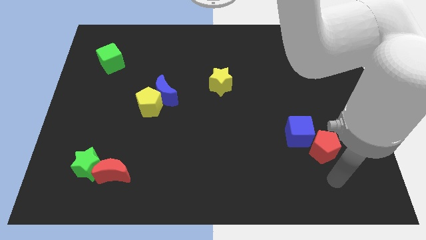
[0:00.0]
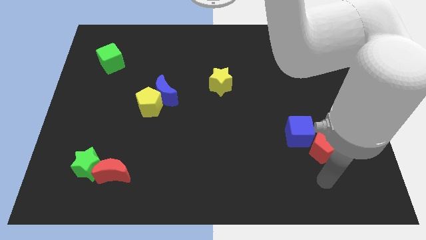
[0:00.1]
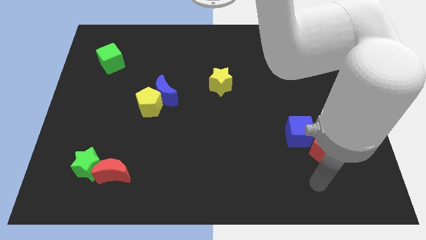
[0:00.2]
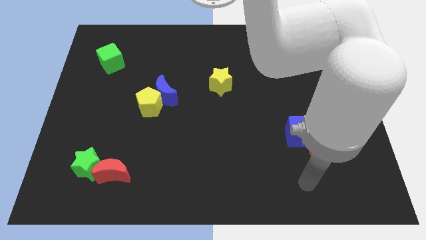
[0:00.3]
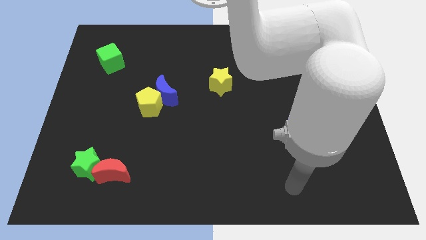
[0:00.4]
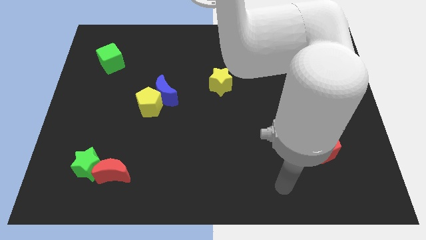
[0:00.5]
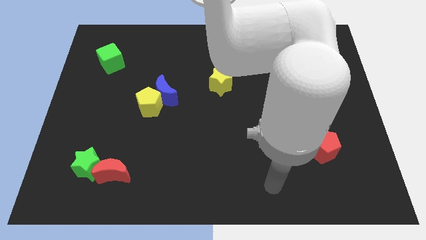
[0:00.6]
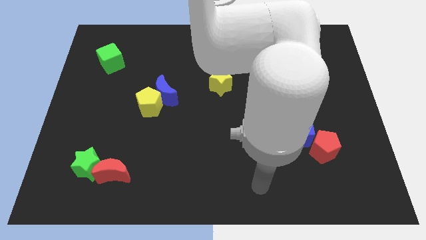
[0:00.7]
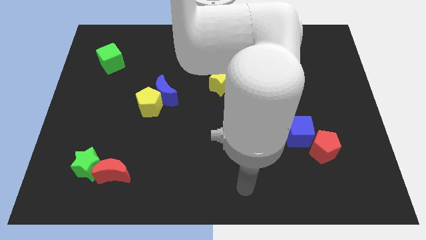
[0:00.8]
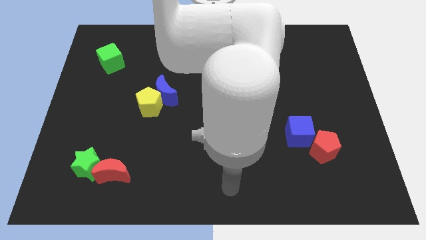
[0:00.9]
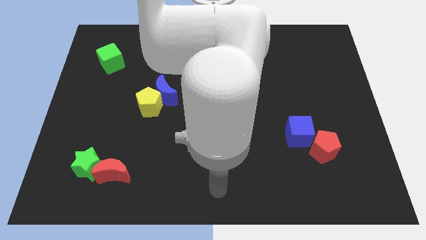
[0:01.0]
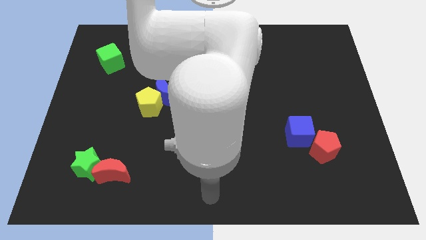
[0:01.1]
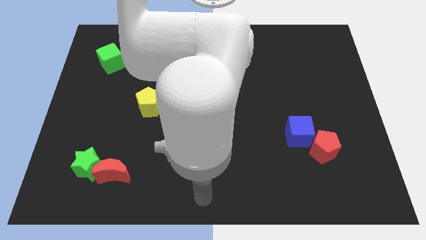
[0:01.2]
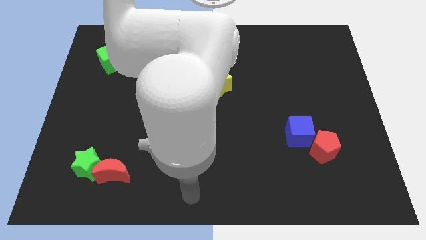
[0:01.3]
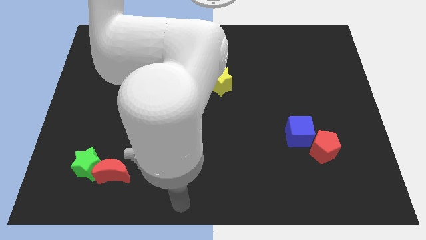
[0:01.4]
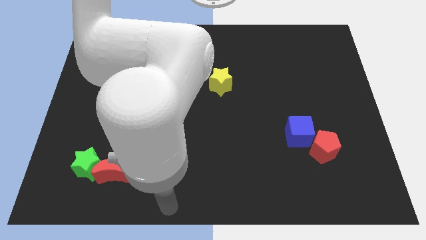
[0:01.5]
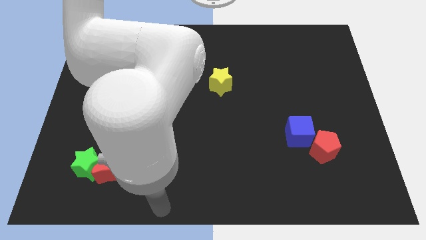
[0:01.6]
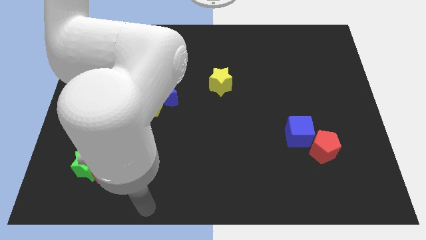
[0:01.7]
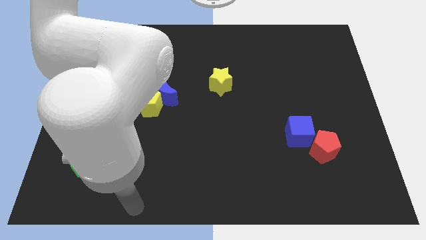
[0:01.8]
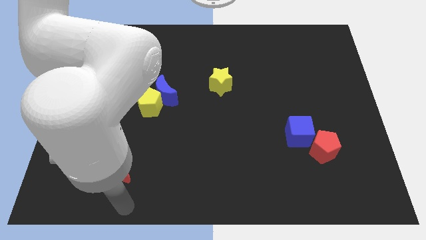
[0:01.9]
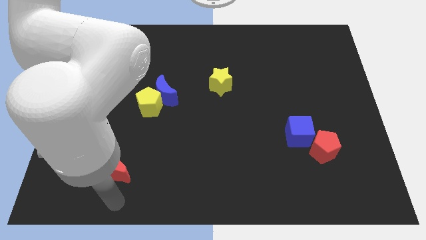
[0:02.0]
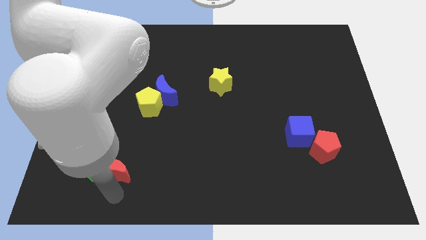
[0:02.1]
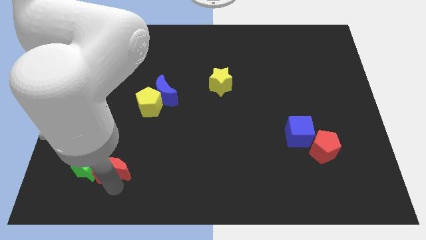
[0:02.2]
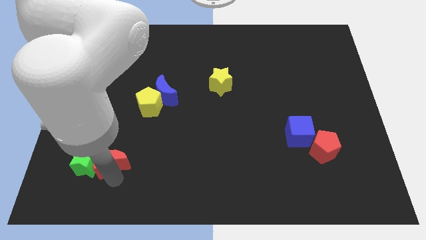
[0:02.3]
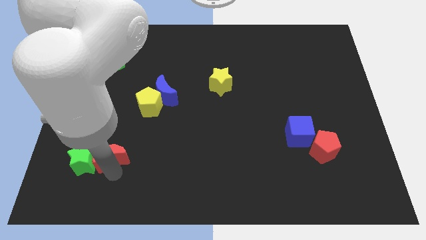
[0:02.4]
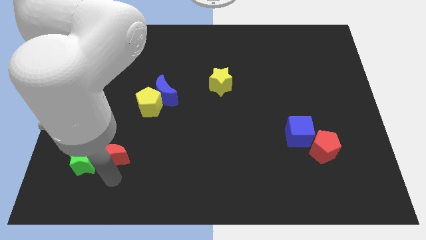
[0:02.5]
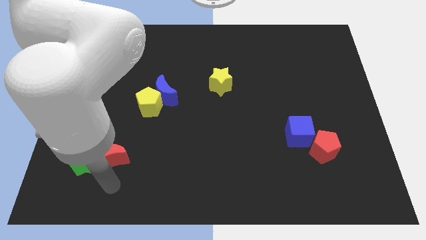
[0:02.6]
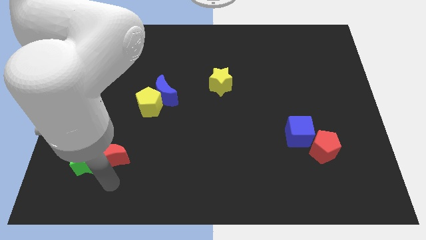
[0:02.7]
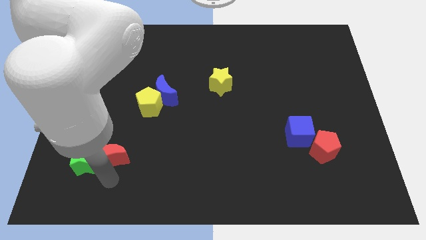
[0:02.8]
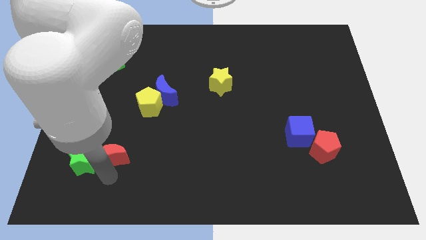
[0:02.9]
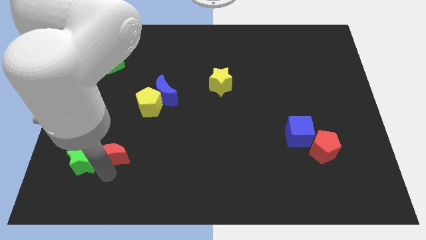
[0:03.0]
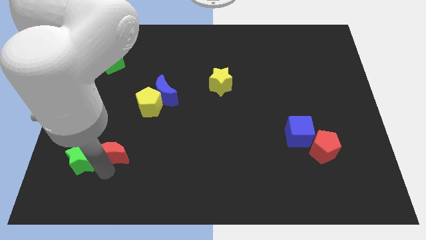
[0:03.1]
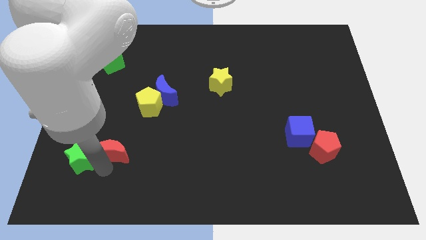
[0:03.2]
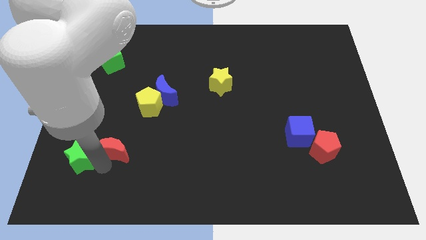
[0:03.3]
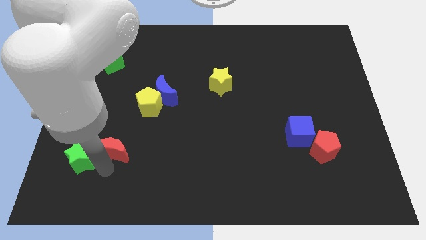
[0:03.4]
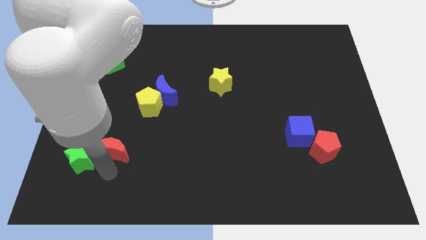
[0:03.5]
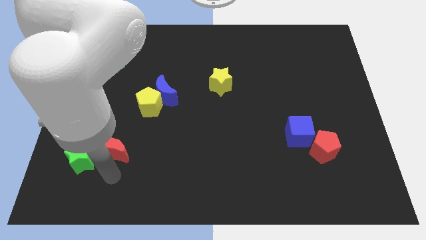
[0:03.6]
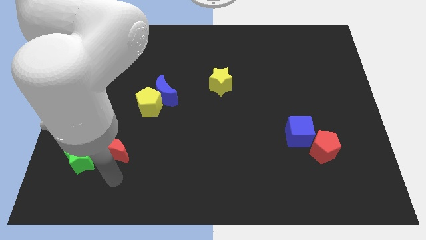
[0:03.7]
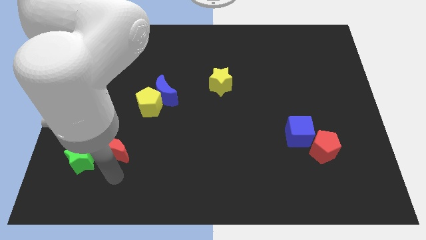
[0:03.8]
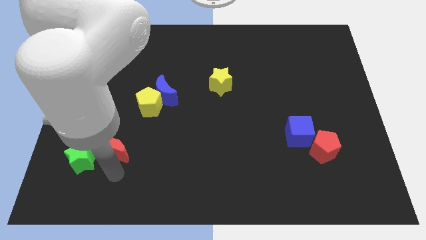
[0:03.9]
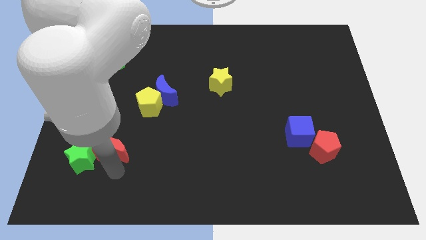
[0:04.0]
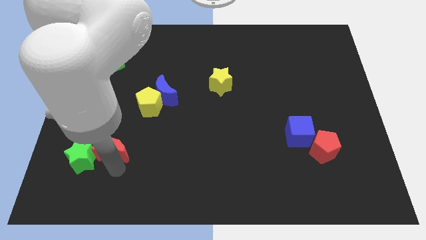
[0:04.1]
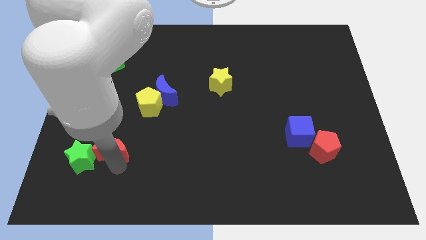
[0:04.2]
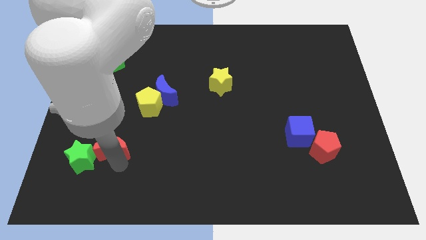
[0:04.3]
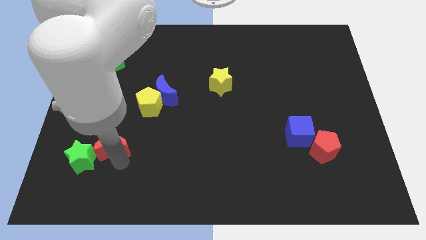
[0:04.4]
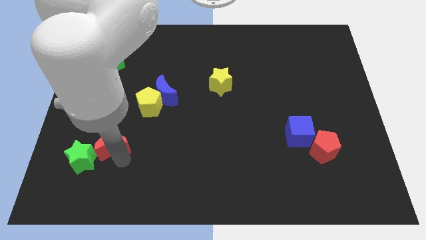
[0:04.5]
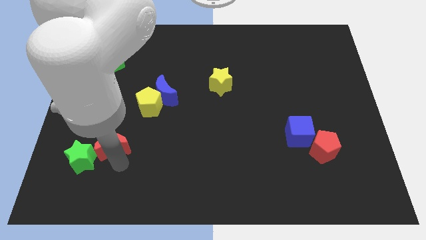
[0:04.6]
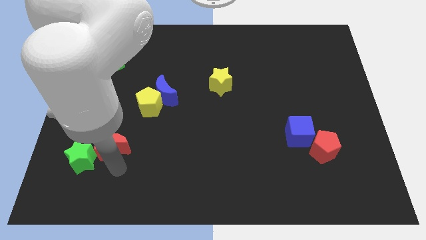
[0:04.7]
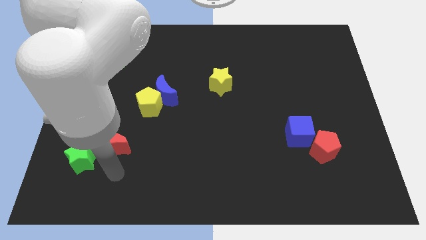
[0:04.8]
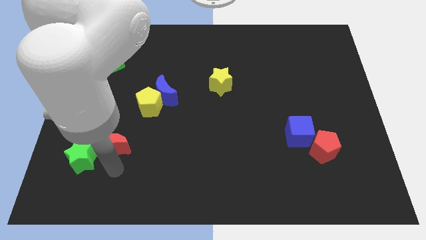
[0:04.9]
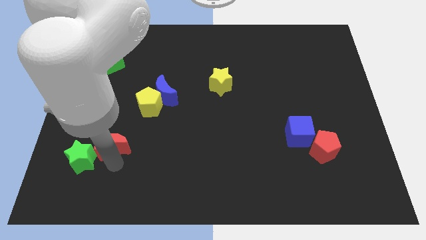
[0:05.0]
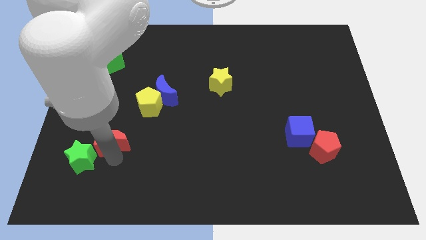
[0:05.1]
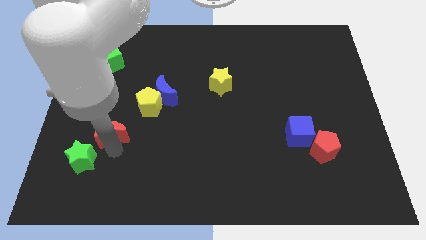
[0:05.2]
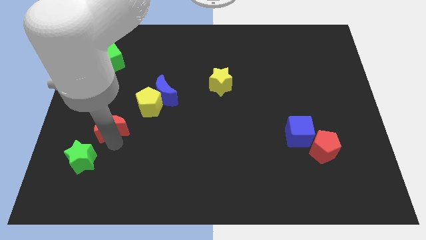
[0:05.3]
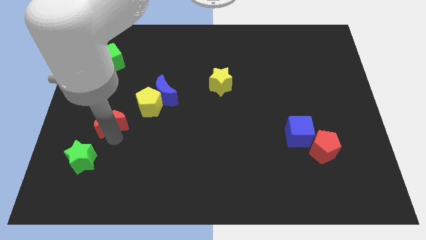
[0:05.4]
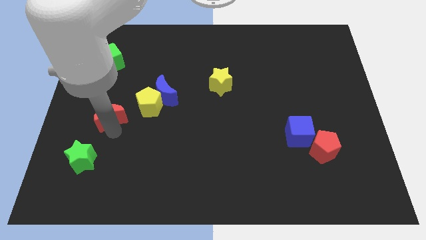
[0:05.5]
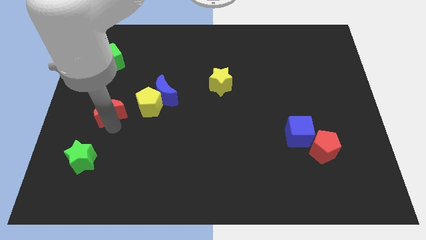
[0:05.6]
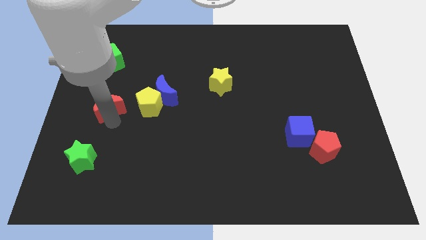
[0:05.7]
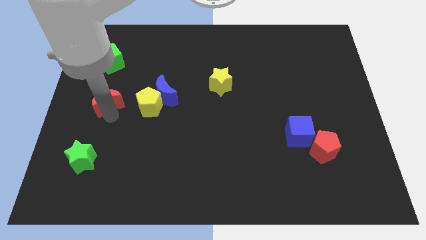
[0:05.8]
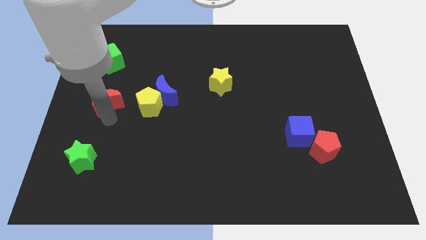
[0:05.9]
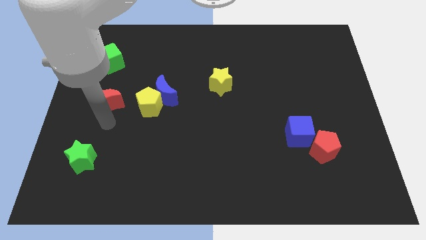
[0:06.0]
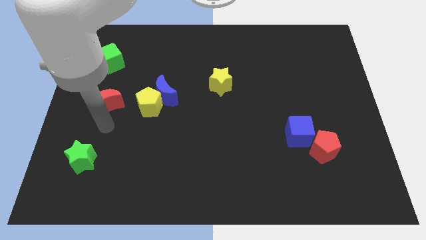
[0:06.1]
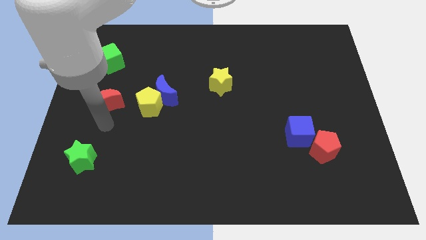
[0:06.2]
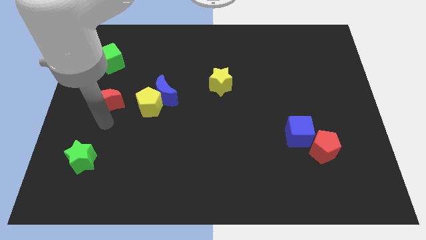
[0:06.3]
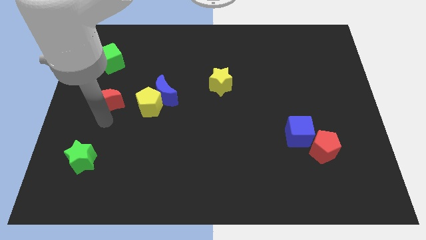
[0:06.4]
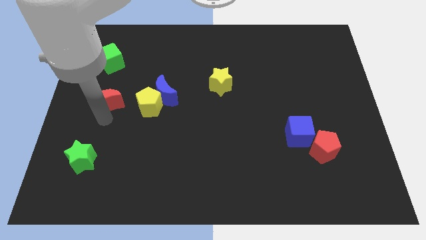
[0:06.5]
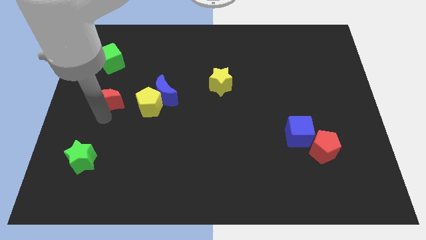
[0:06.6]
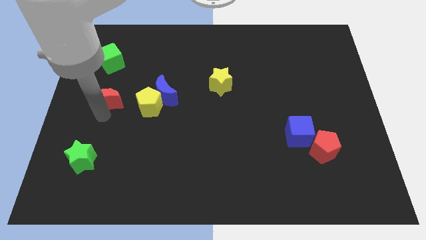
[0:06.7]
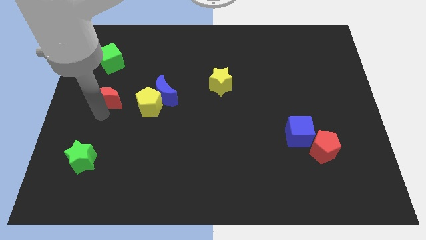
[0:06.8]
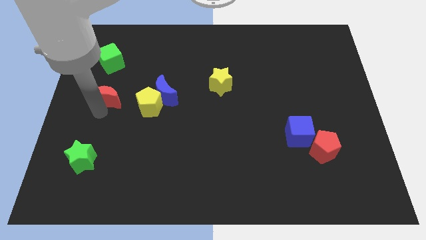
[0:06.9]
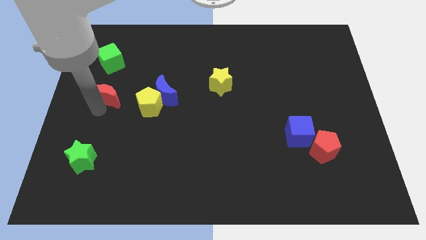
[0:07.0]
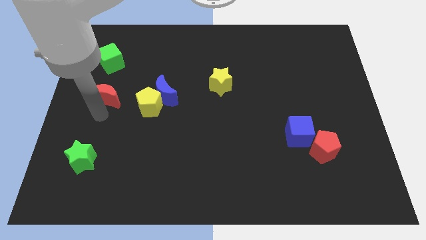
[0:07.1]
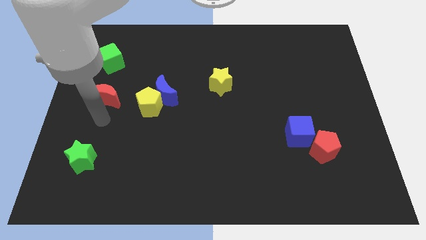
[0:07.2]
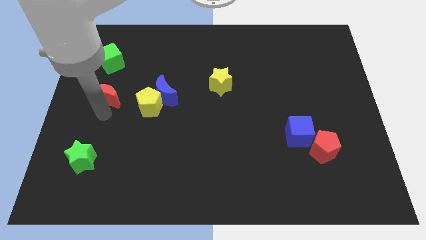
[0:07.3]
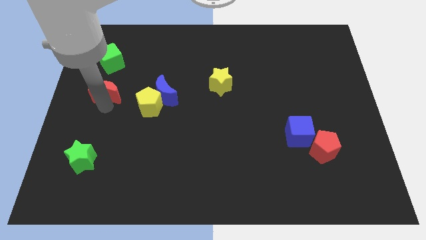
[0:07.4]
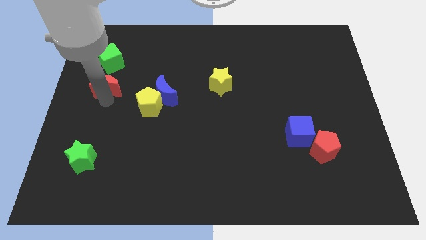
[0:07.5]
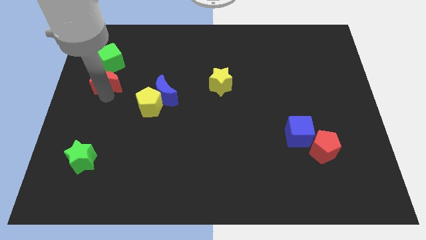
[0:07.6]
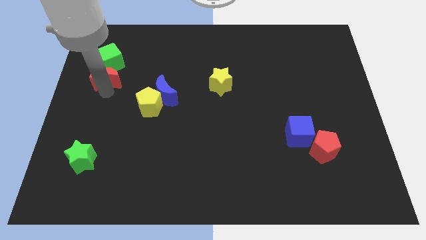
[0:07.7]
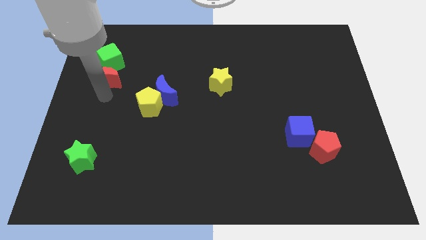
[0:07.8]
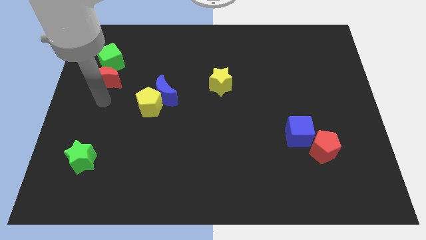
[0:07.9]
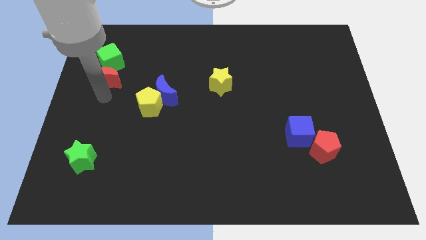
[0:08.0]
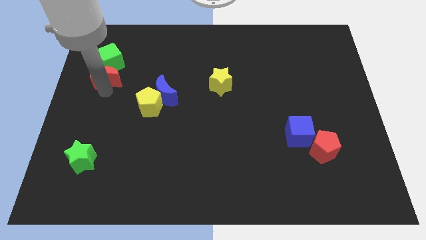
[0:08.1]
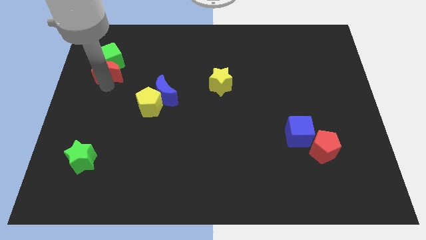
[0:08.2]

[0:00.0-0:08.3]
put the red moon towards the green cube
